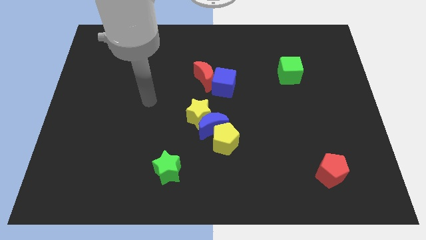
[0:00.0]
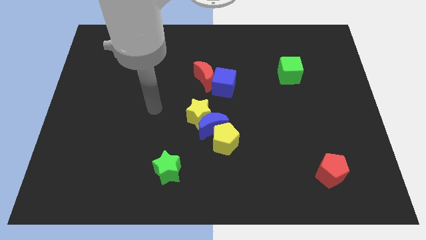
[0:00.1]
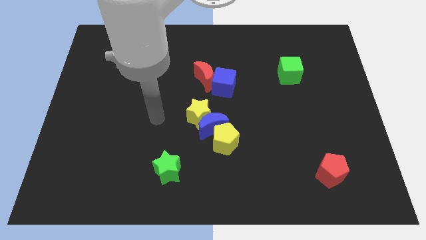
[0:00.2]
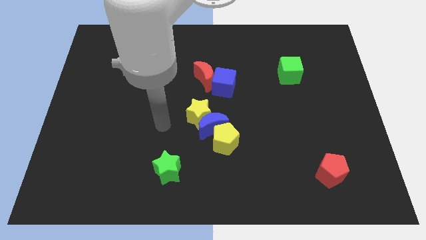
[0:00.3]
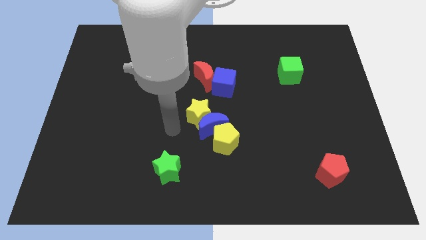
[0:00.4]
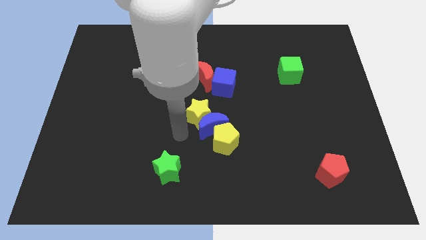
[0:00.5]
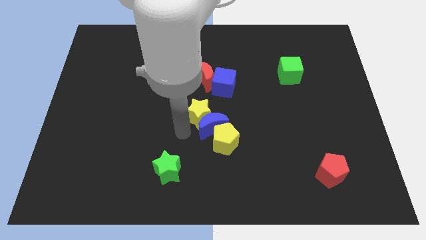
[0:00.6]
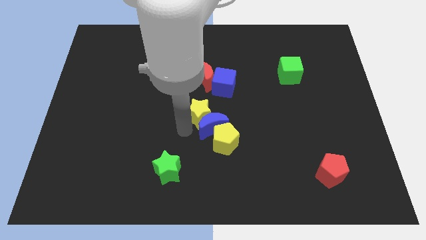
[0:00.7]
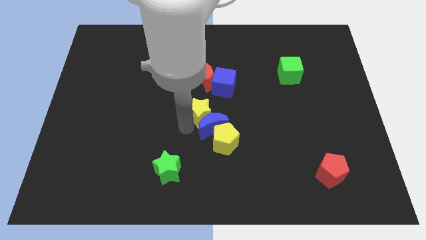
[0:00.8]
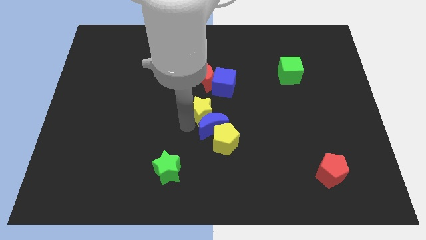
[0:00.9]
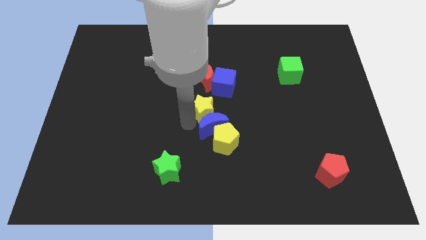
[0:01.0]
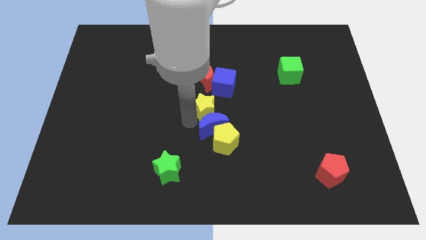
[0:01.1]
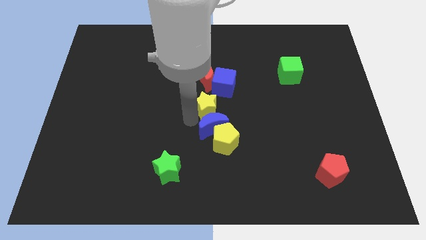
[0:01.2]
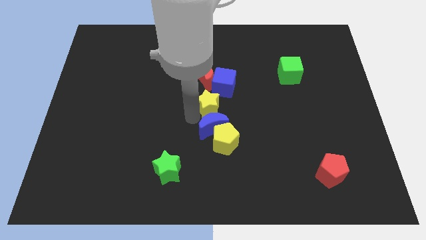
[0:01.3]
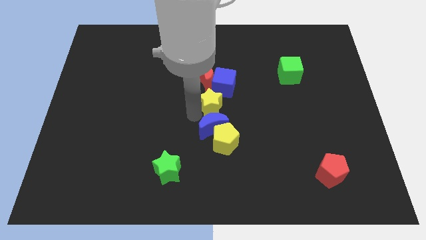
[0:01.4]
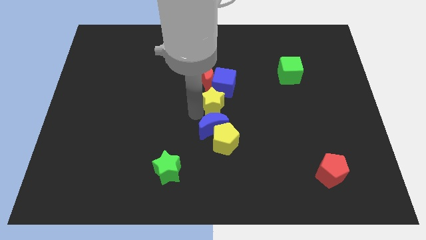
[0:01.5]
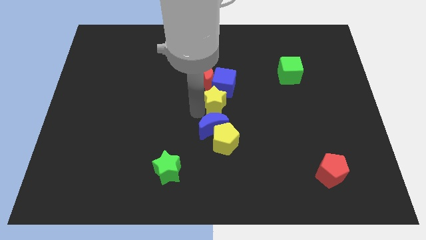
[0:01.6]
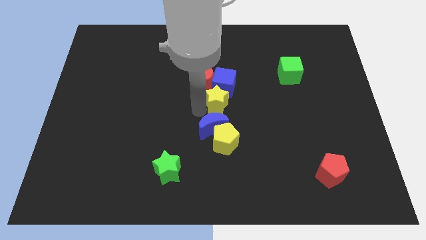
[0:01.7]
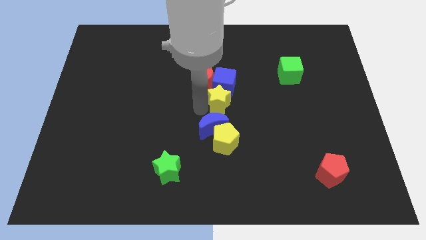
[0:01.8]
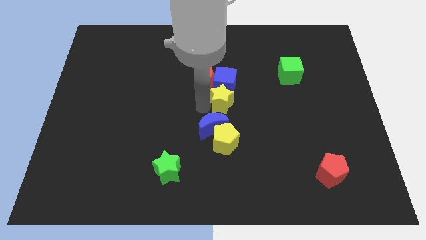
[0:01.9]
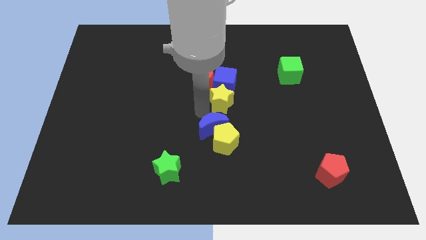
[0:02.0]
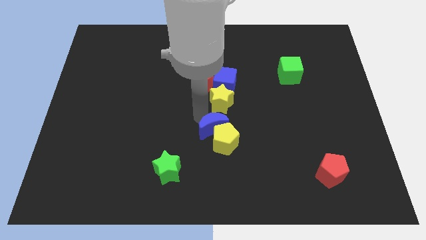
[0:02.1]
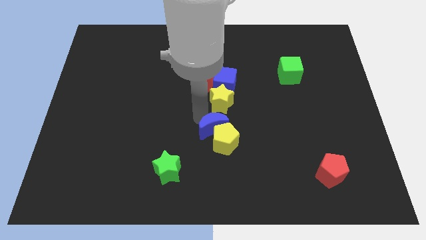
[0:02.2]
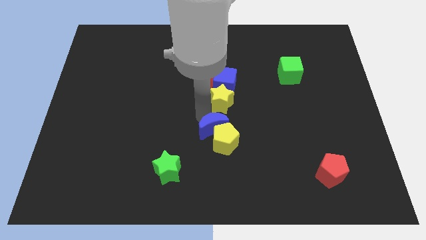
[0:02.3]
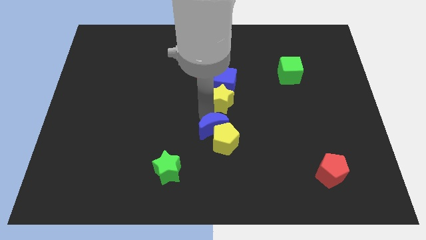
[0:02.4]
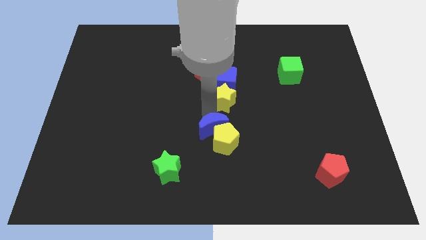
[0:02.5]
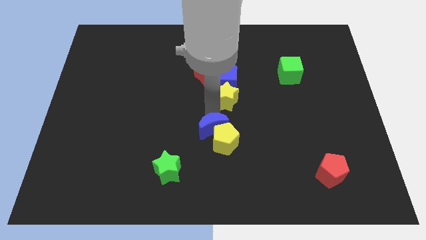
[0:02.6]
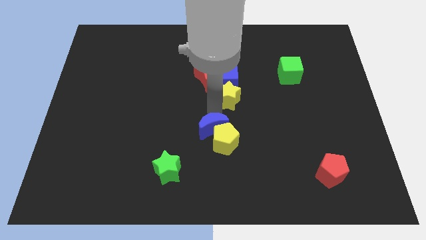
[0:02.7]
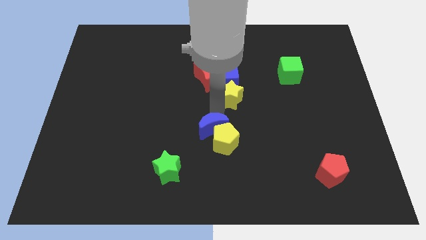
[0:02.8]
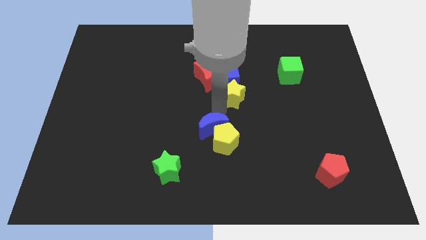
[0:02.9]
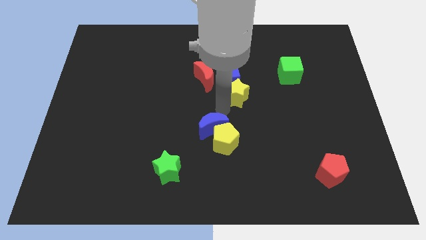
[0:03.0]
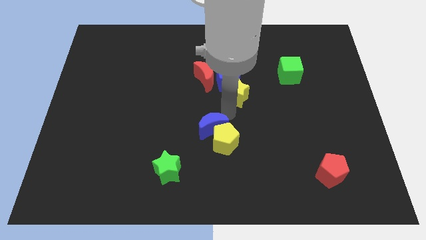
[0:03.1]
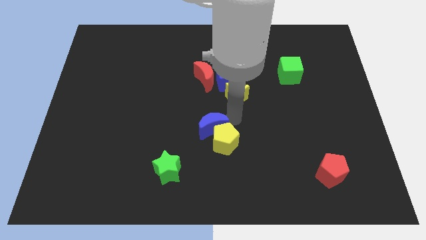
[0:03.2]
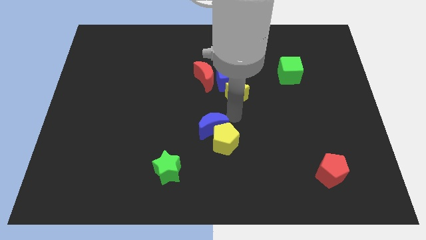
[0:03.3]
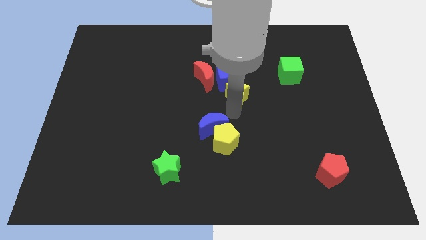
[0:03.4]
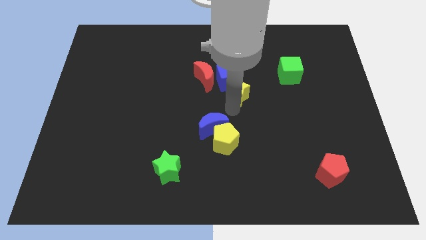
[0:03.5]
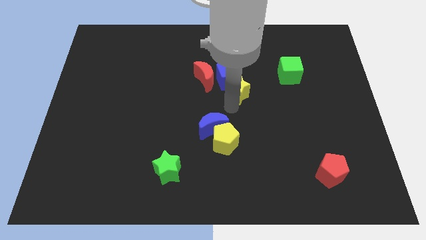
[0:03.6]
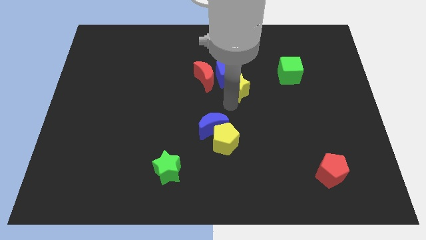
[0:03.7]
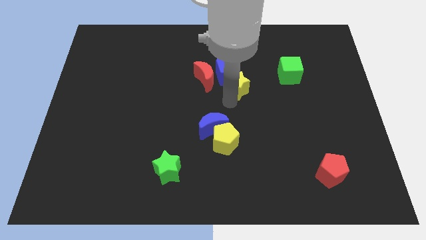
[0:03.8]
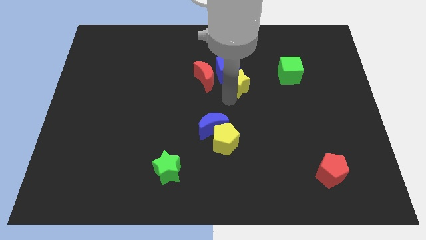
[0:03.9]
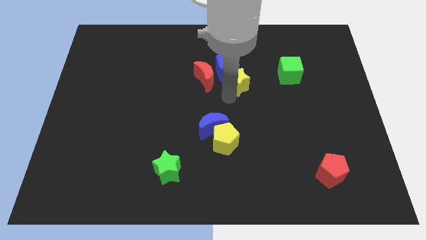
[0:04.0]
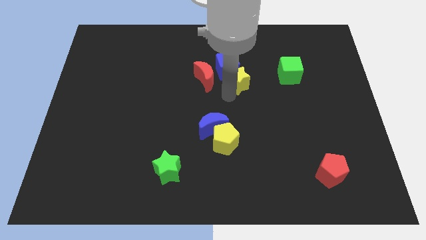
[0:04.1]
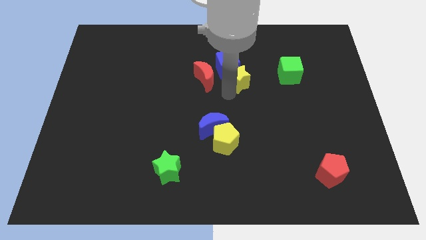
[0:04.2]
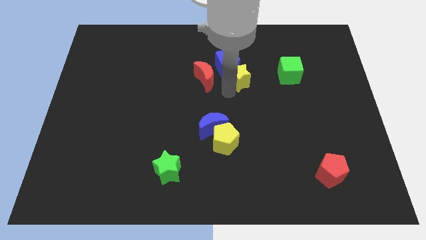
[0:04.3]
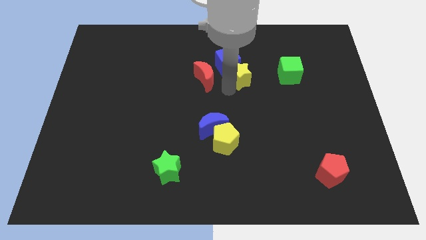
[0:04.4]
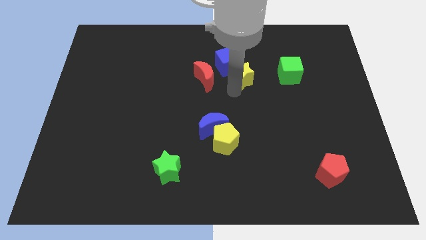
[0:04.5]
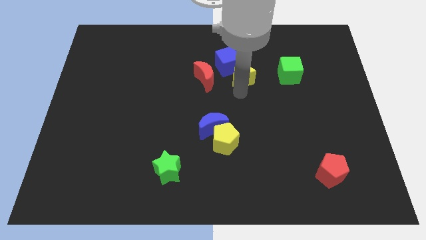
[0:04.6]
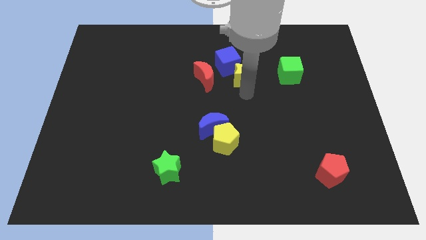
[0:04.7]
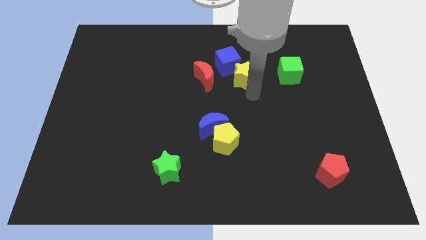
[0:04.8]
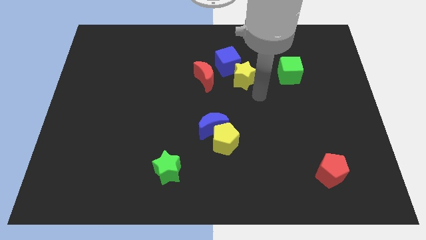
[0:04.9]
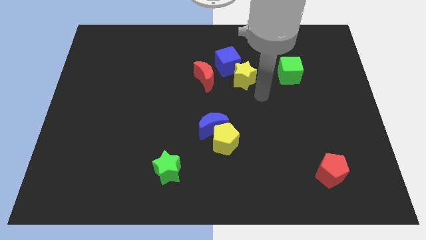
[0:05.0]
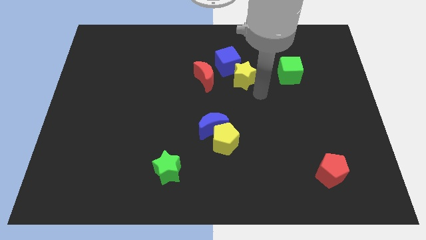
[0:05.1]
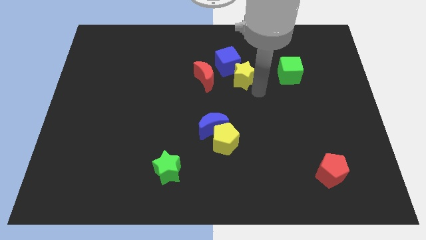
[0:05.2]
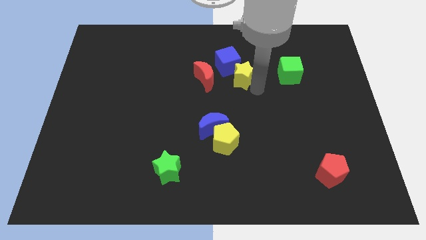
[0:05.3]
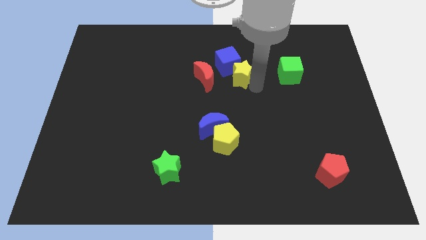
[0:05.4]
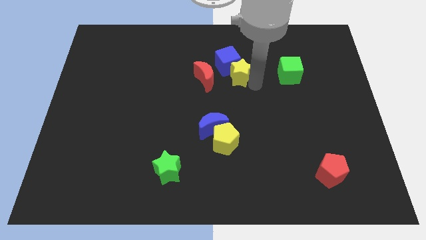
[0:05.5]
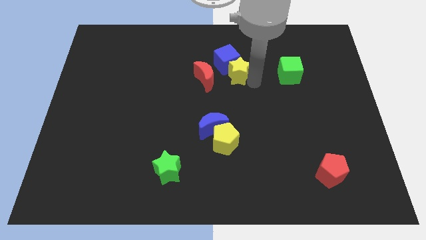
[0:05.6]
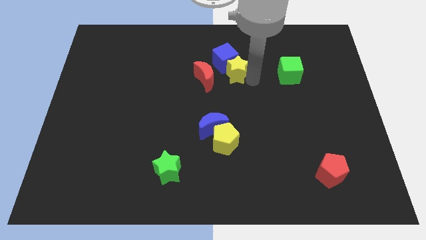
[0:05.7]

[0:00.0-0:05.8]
move the yellow star to the top right of the red moon
